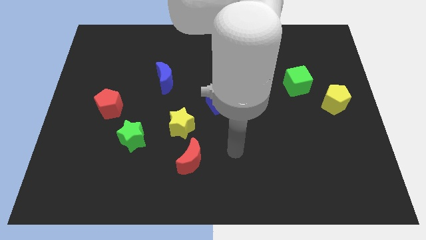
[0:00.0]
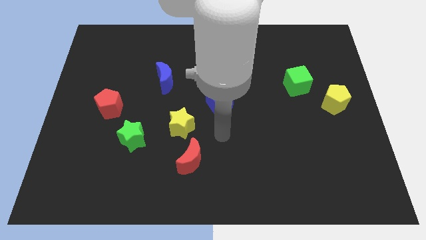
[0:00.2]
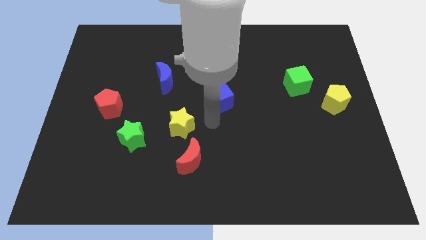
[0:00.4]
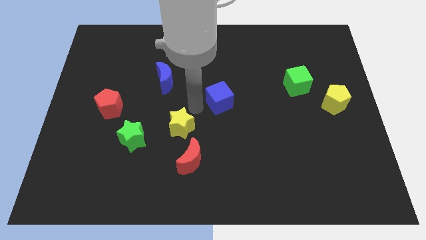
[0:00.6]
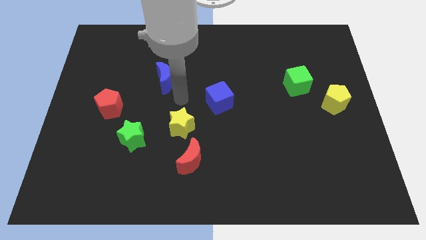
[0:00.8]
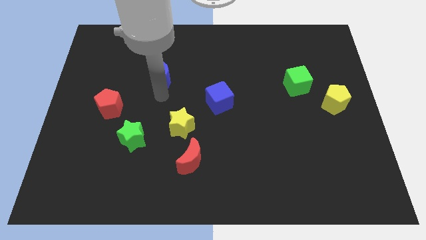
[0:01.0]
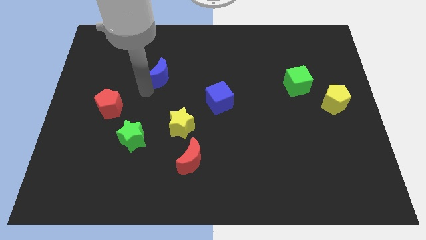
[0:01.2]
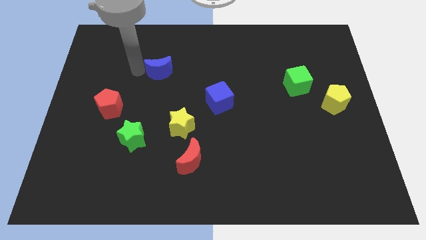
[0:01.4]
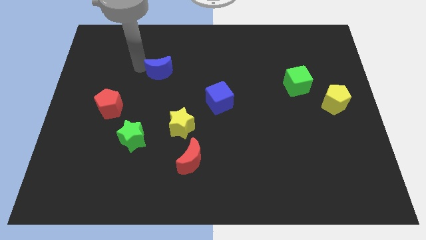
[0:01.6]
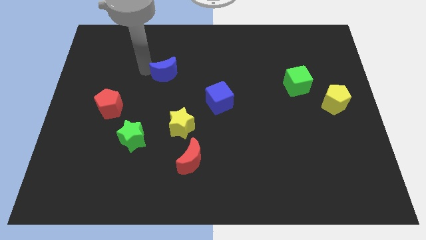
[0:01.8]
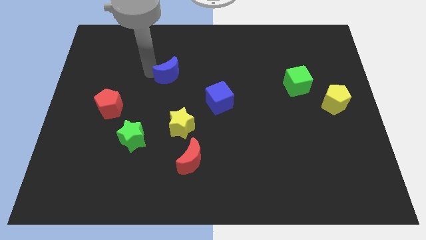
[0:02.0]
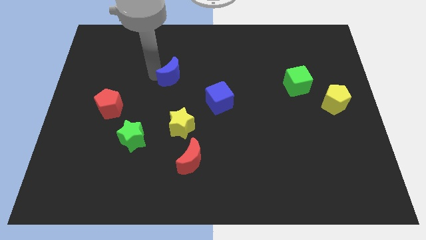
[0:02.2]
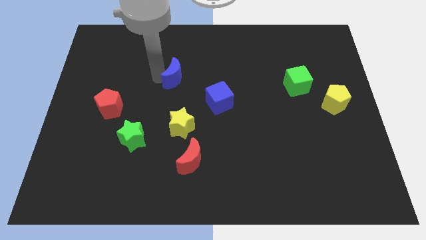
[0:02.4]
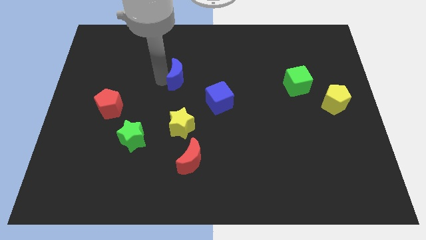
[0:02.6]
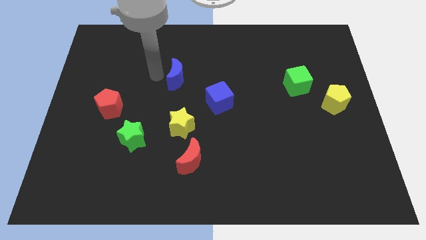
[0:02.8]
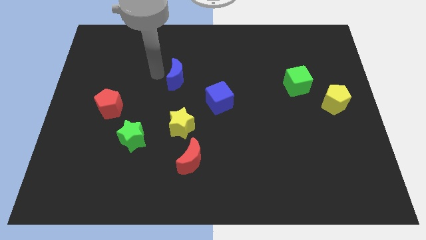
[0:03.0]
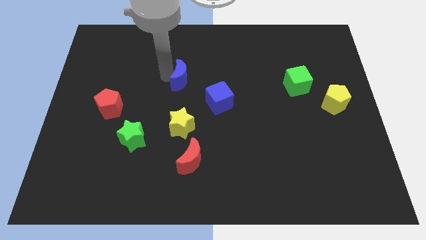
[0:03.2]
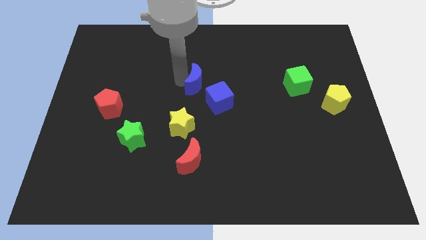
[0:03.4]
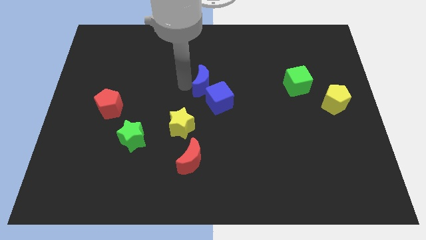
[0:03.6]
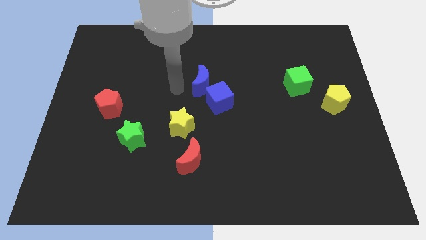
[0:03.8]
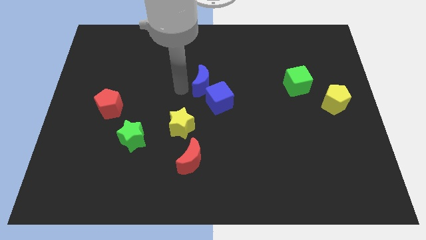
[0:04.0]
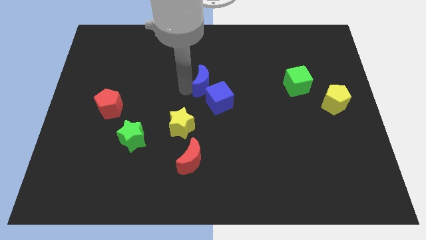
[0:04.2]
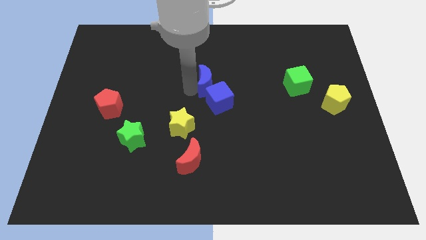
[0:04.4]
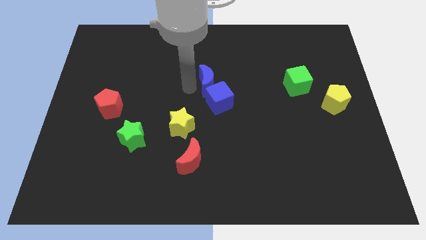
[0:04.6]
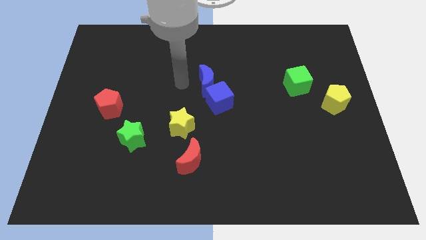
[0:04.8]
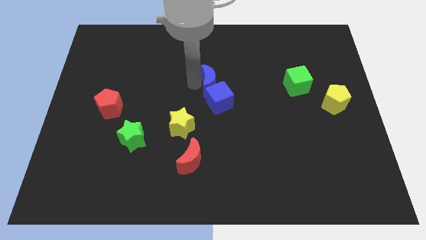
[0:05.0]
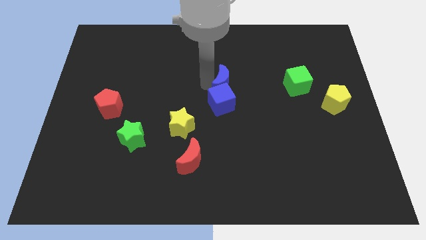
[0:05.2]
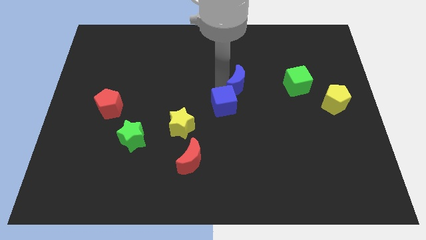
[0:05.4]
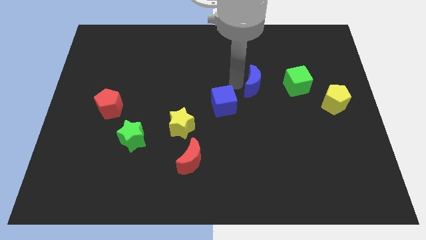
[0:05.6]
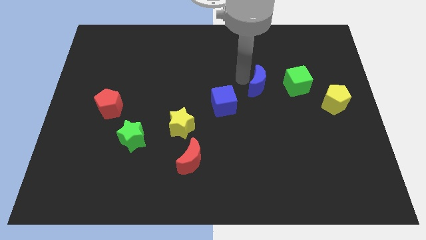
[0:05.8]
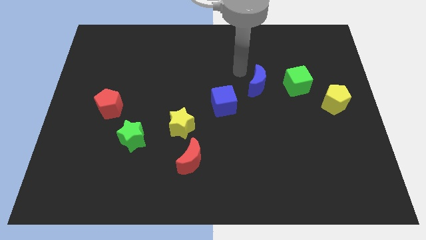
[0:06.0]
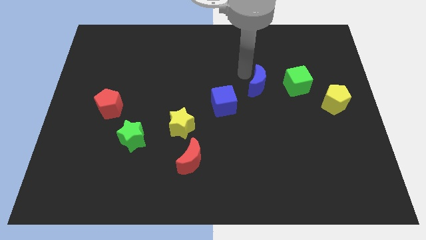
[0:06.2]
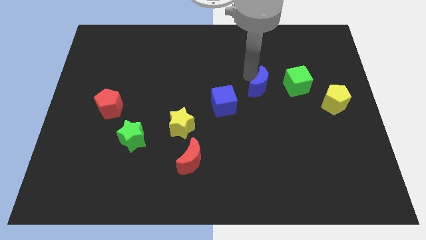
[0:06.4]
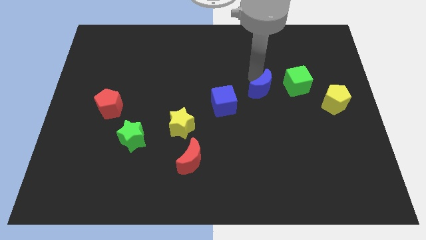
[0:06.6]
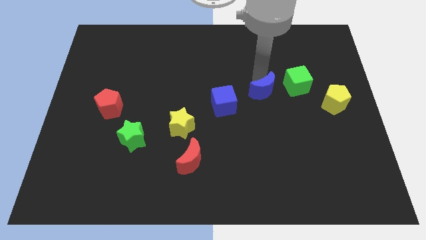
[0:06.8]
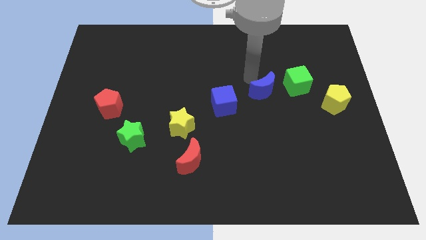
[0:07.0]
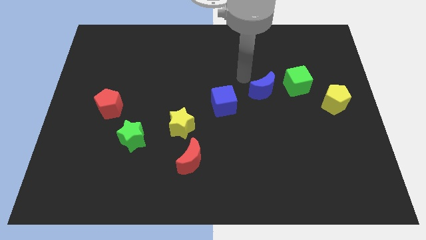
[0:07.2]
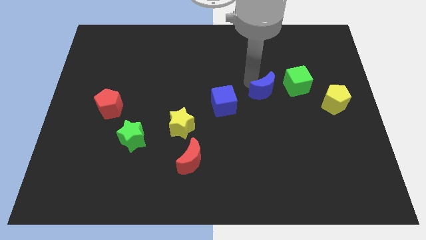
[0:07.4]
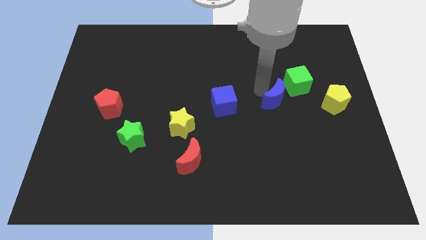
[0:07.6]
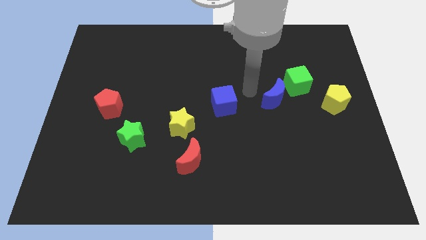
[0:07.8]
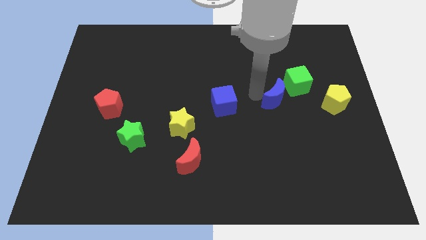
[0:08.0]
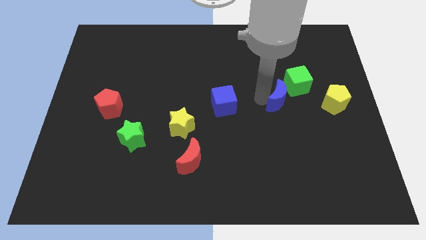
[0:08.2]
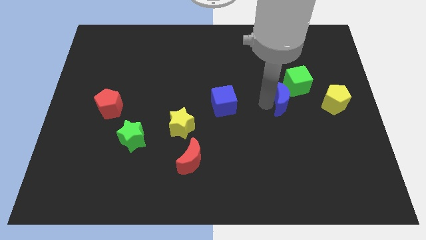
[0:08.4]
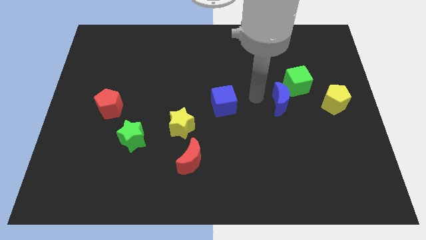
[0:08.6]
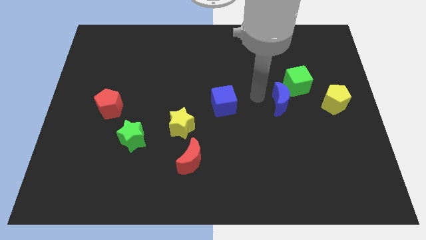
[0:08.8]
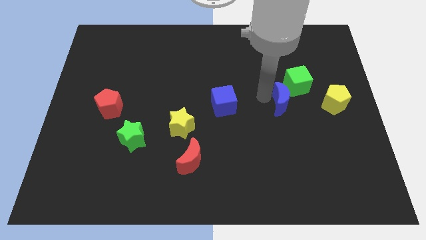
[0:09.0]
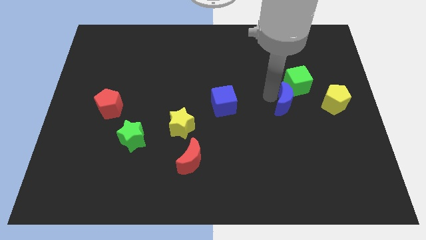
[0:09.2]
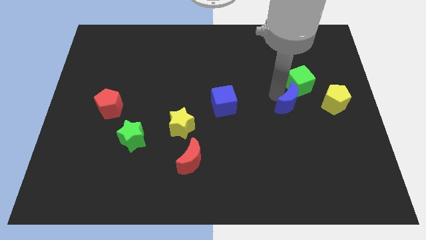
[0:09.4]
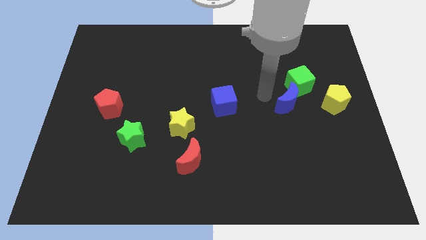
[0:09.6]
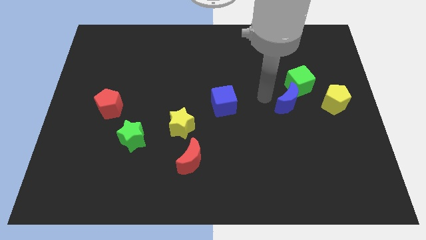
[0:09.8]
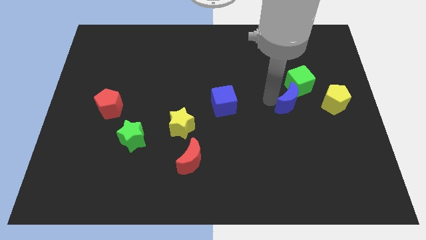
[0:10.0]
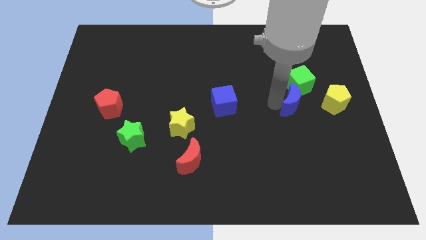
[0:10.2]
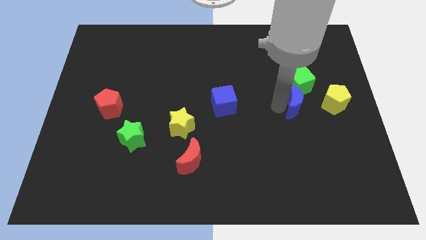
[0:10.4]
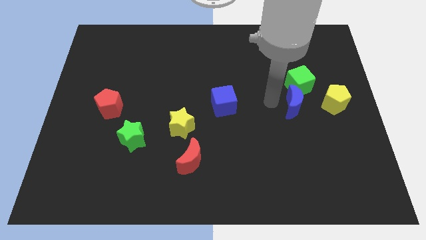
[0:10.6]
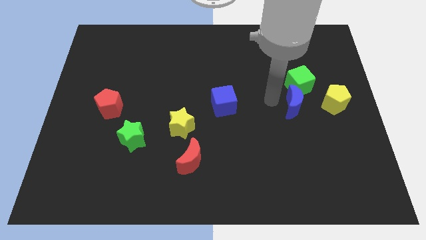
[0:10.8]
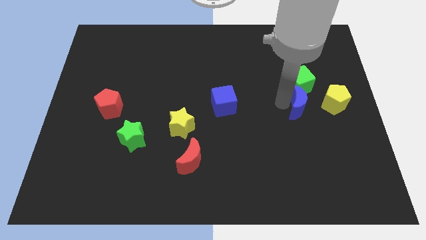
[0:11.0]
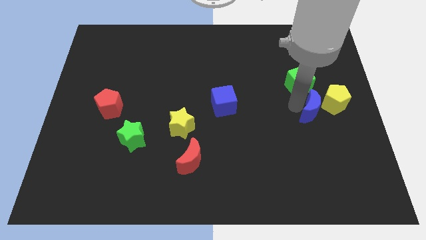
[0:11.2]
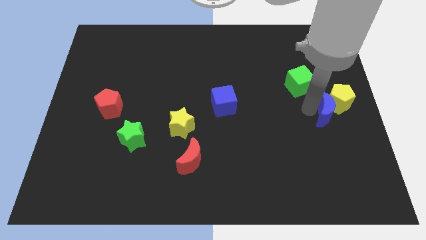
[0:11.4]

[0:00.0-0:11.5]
push the blue moon to the right side

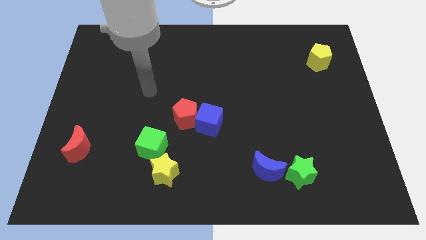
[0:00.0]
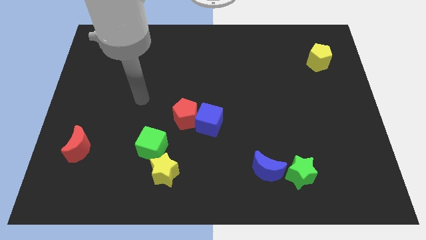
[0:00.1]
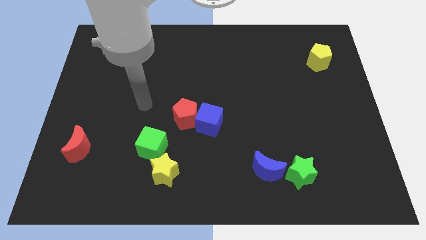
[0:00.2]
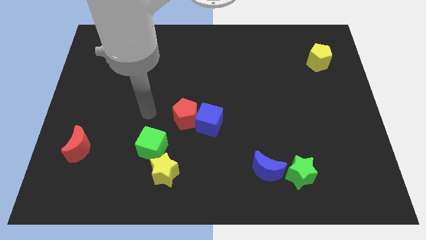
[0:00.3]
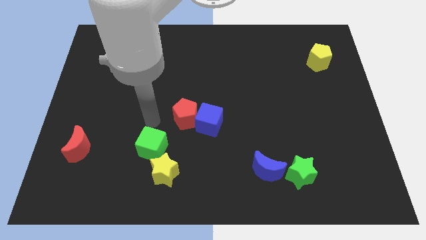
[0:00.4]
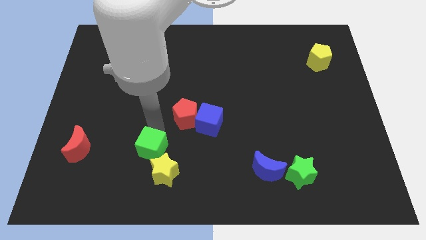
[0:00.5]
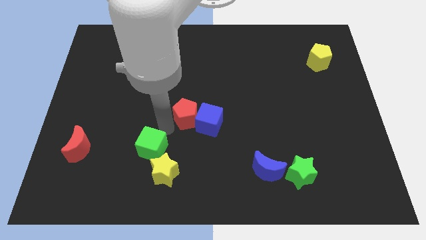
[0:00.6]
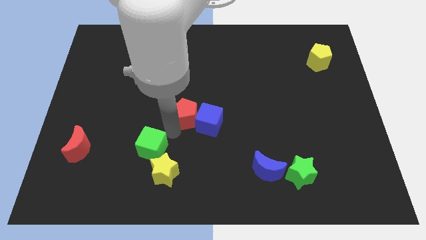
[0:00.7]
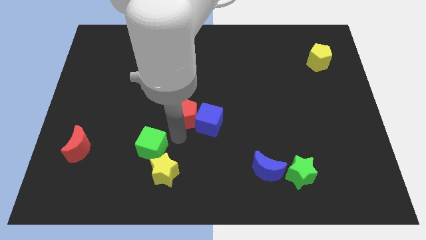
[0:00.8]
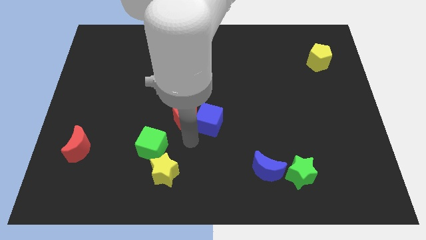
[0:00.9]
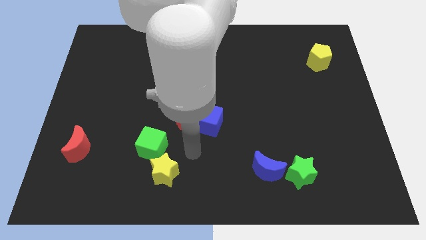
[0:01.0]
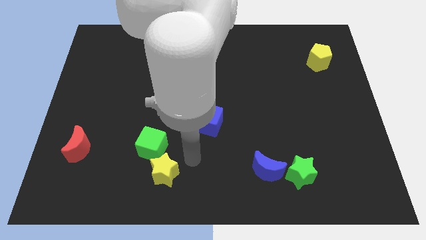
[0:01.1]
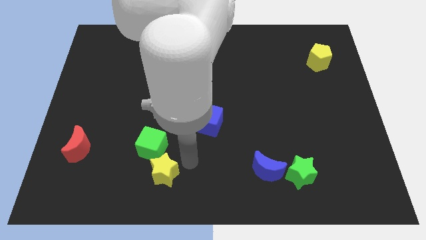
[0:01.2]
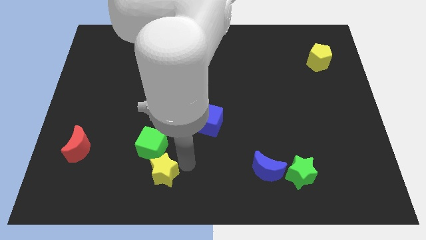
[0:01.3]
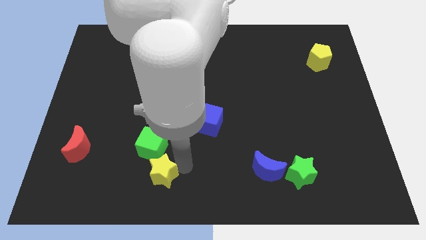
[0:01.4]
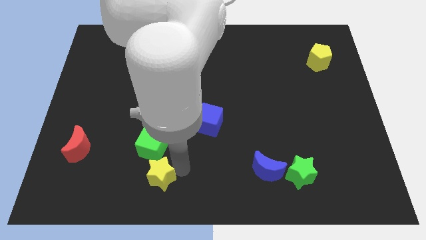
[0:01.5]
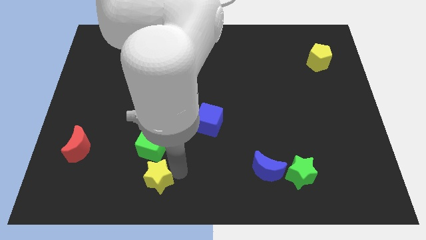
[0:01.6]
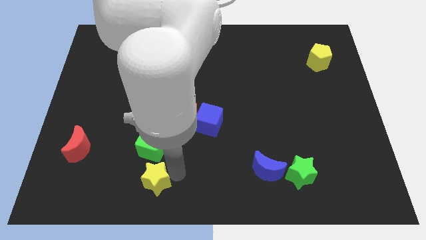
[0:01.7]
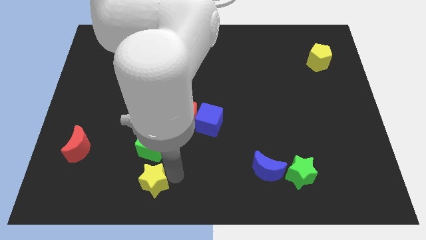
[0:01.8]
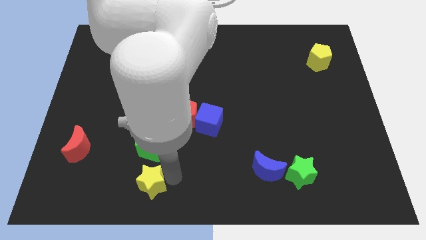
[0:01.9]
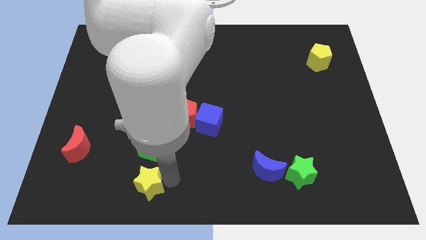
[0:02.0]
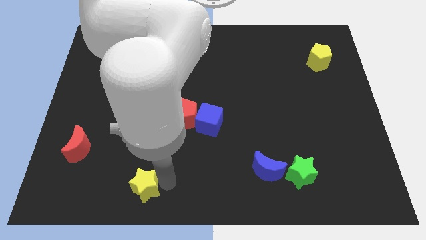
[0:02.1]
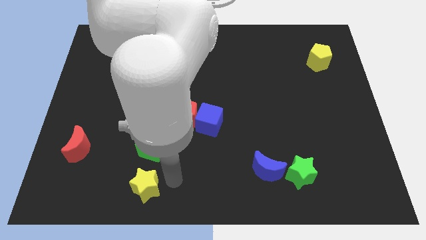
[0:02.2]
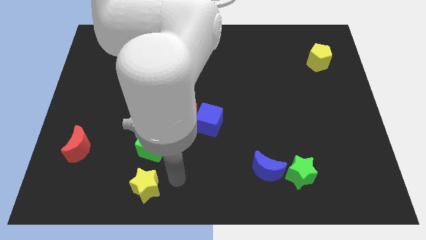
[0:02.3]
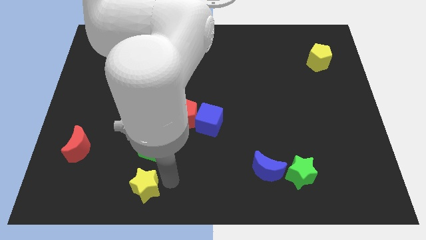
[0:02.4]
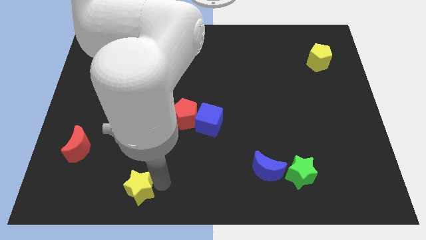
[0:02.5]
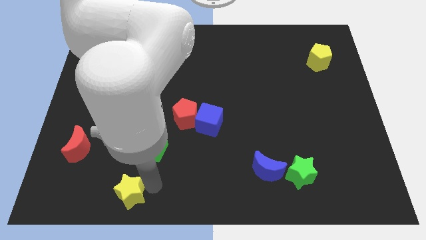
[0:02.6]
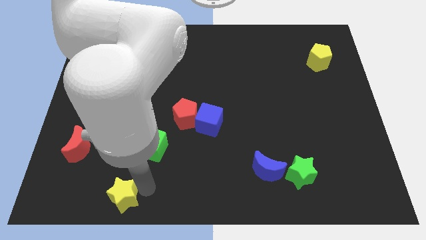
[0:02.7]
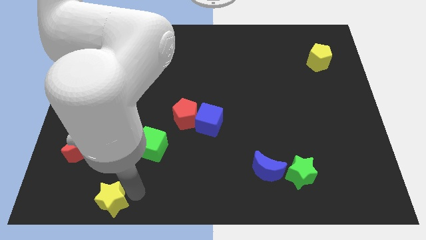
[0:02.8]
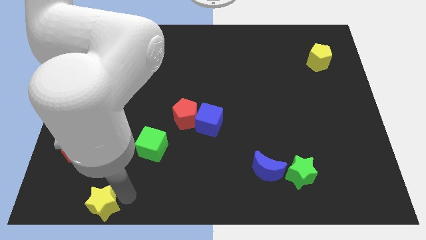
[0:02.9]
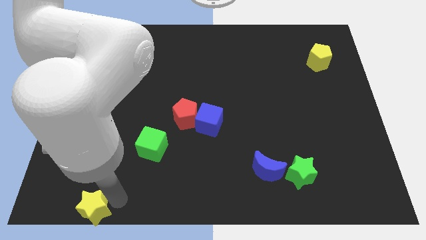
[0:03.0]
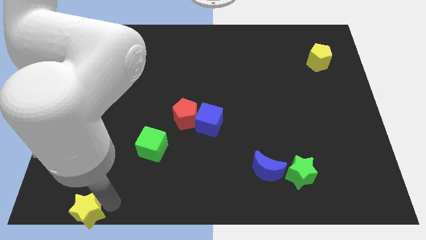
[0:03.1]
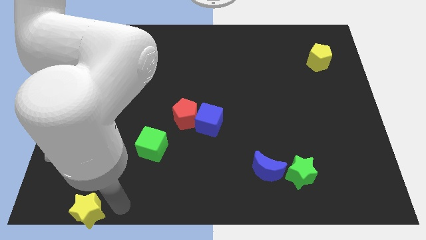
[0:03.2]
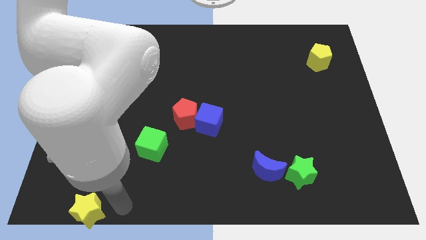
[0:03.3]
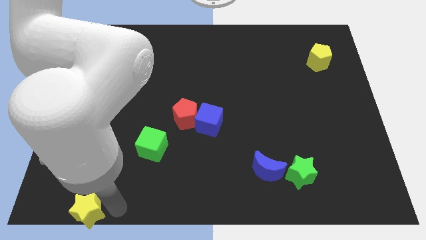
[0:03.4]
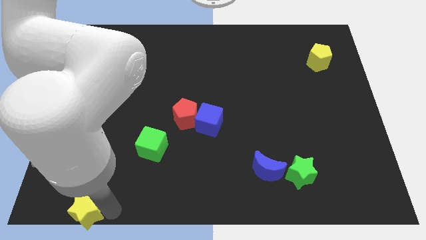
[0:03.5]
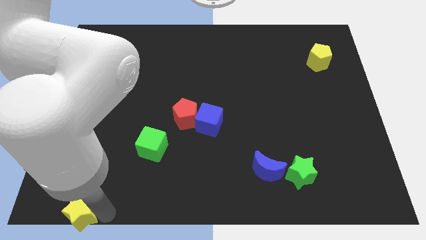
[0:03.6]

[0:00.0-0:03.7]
put the yellow star to the bottom left
